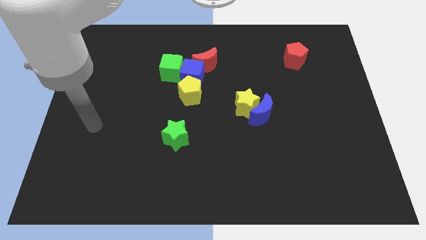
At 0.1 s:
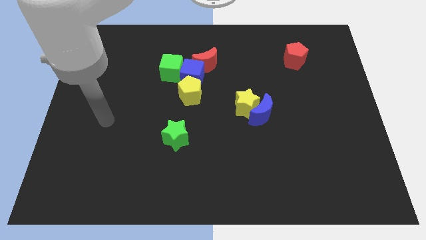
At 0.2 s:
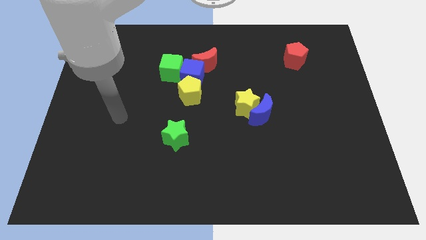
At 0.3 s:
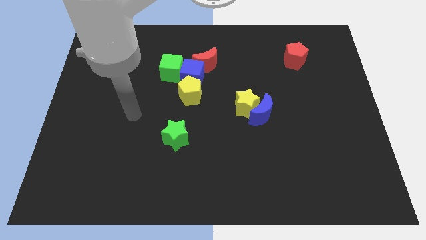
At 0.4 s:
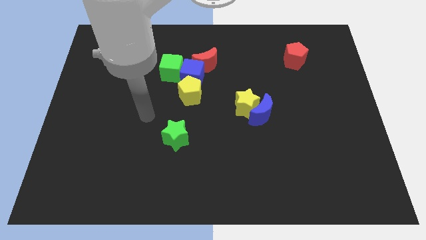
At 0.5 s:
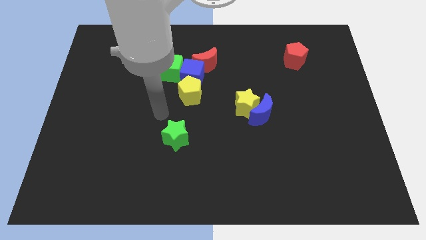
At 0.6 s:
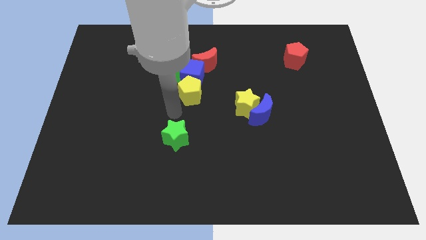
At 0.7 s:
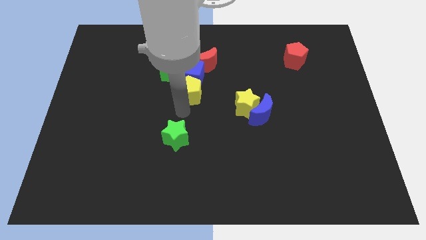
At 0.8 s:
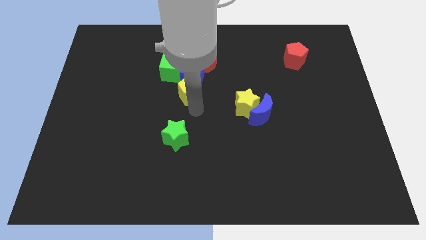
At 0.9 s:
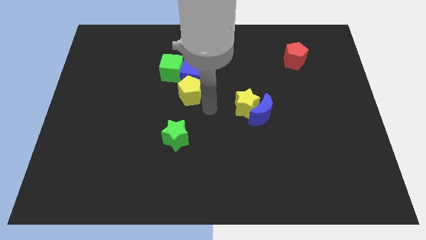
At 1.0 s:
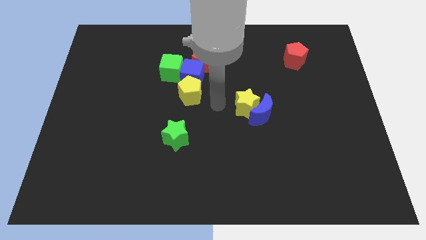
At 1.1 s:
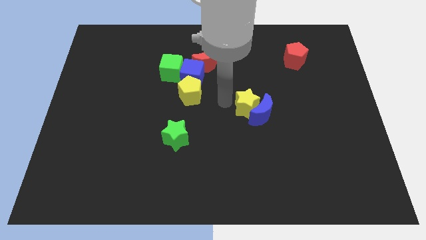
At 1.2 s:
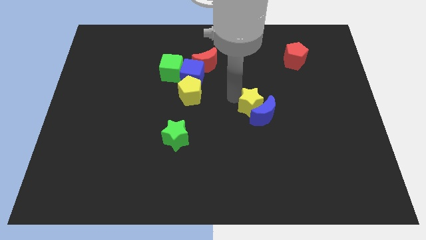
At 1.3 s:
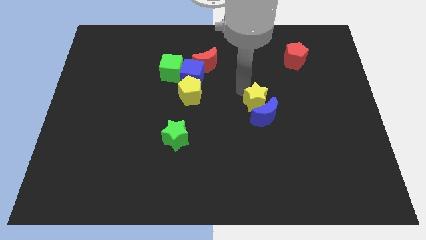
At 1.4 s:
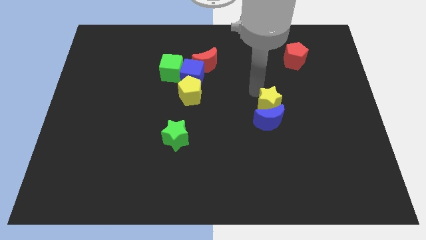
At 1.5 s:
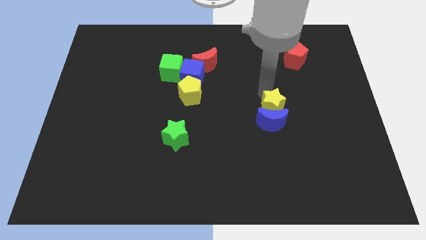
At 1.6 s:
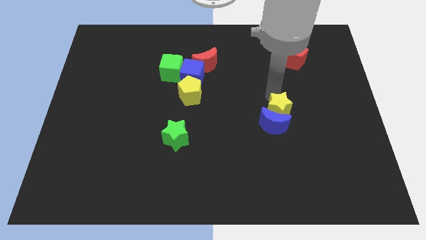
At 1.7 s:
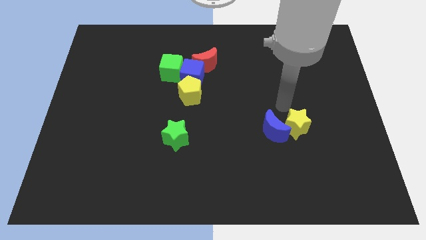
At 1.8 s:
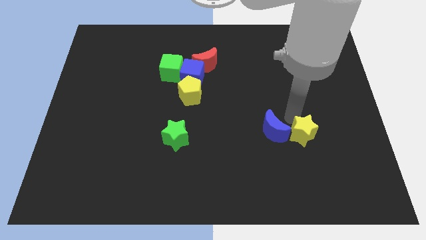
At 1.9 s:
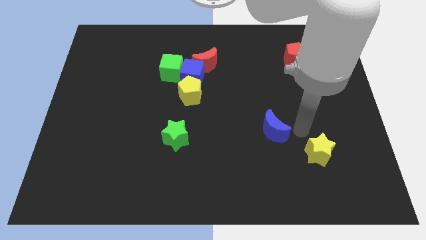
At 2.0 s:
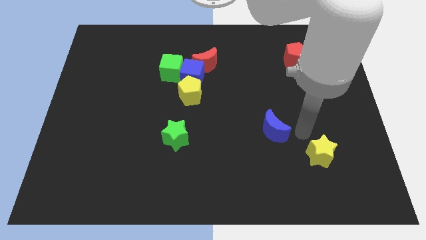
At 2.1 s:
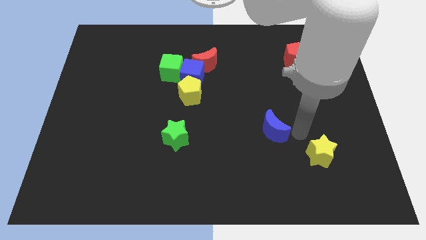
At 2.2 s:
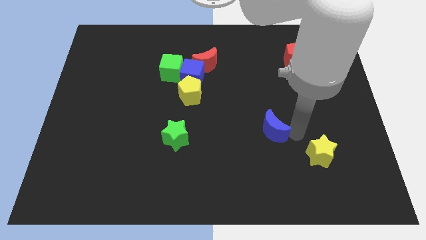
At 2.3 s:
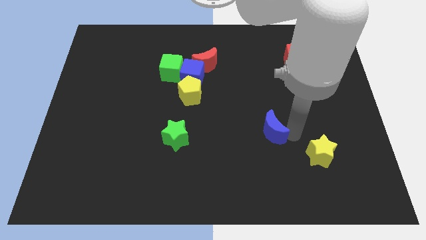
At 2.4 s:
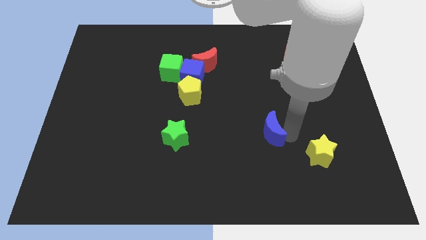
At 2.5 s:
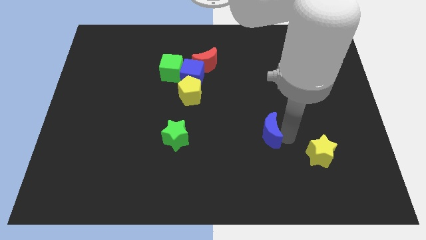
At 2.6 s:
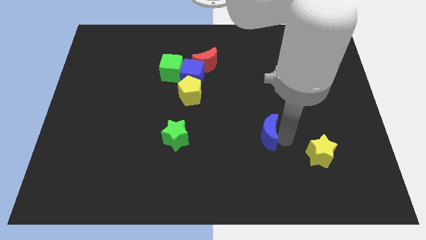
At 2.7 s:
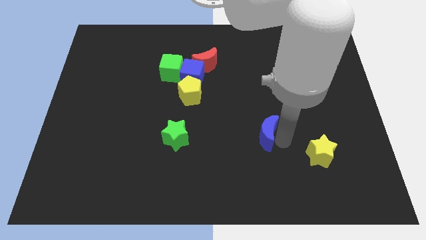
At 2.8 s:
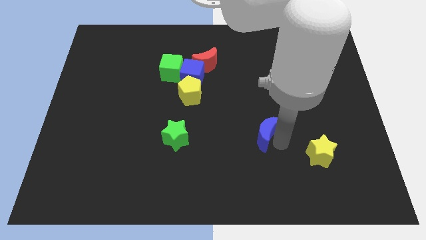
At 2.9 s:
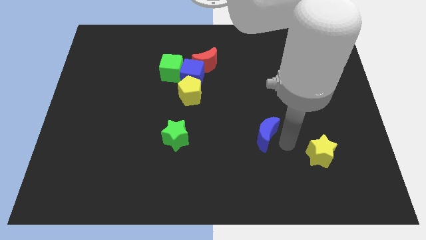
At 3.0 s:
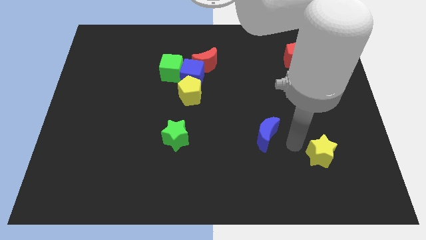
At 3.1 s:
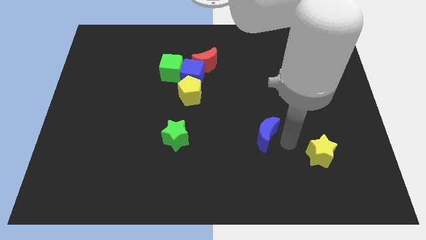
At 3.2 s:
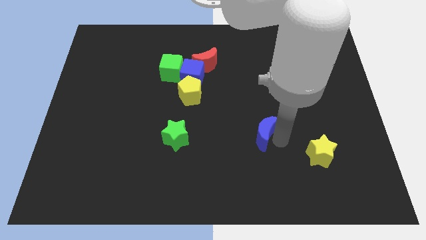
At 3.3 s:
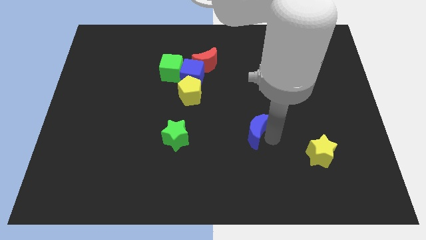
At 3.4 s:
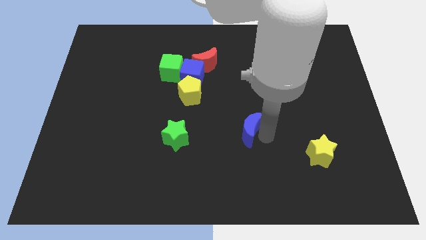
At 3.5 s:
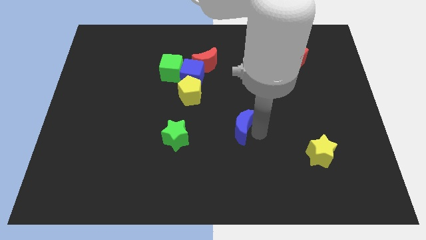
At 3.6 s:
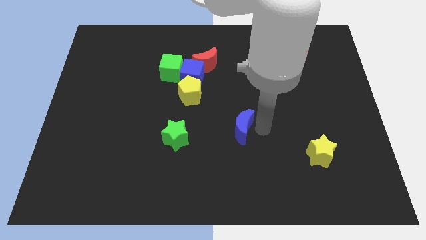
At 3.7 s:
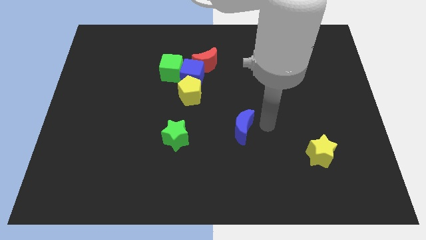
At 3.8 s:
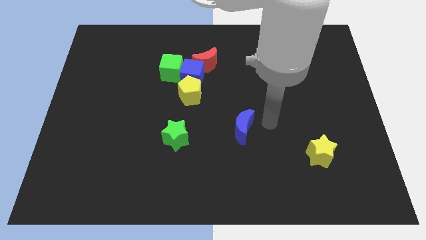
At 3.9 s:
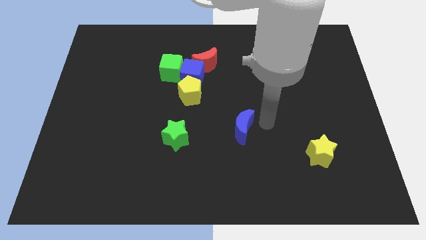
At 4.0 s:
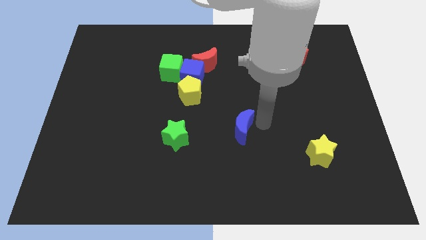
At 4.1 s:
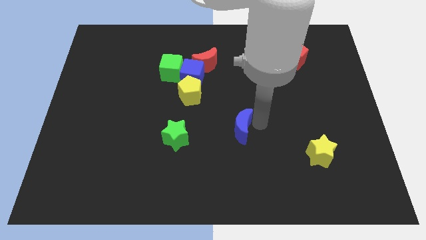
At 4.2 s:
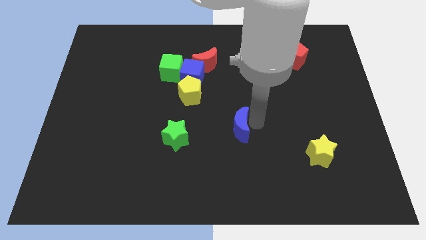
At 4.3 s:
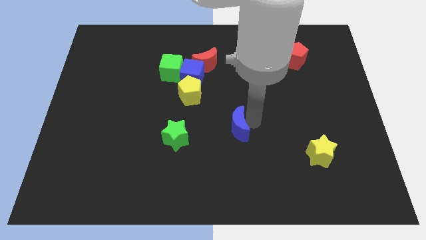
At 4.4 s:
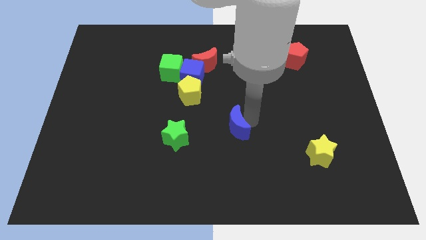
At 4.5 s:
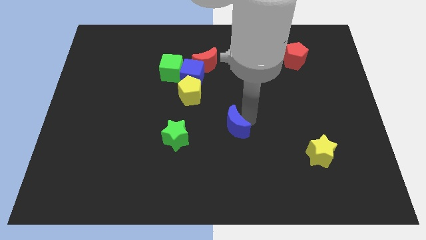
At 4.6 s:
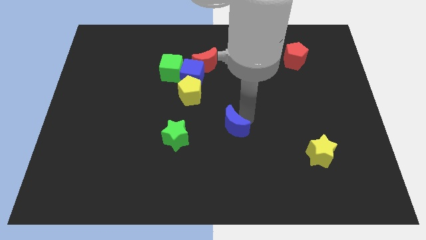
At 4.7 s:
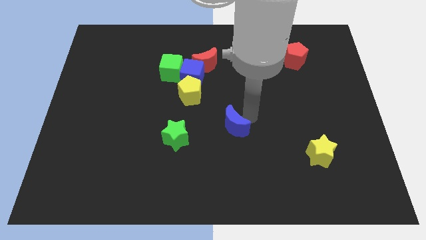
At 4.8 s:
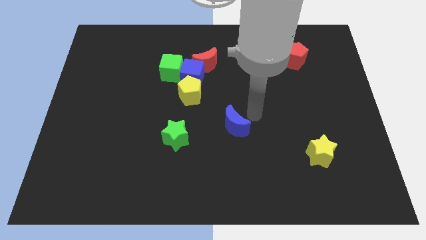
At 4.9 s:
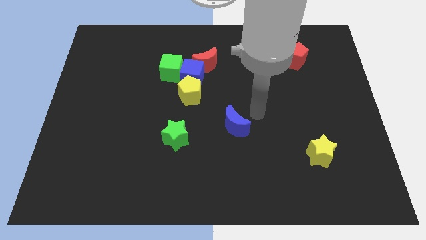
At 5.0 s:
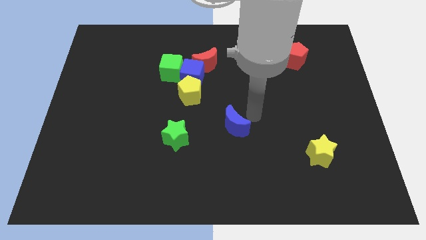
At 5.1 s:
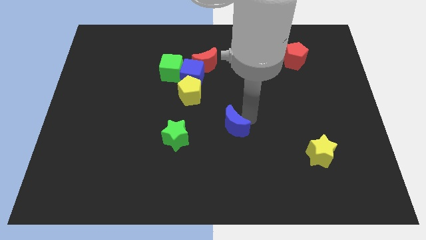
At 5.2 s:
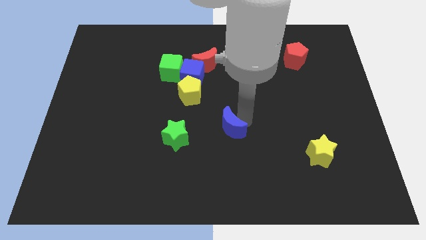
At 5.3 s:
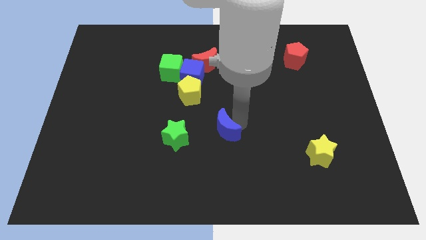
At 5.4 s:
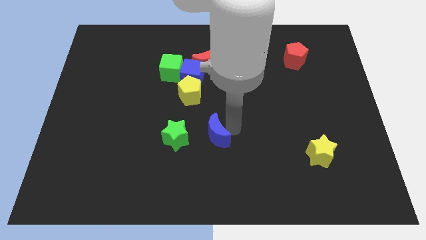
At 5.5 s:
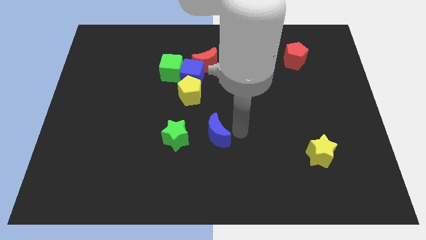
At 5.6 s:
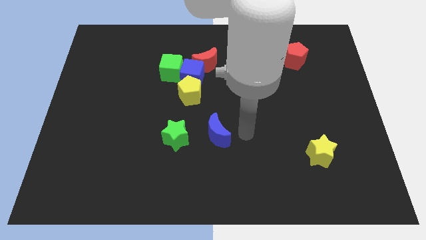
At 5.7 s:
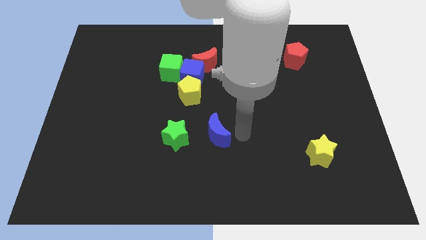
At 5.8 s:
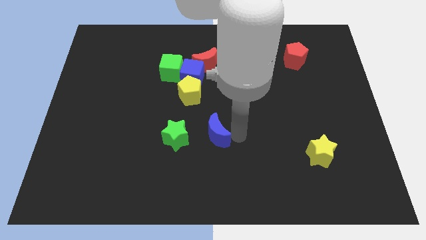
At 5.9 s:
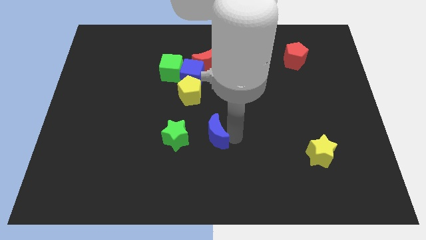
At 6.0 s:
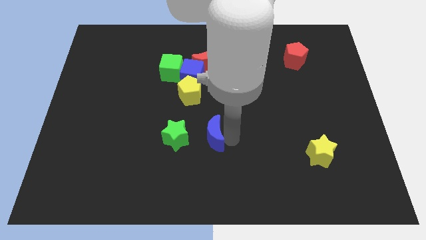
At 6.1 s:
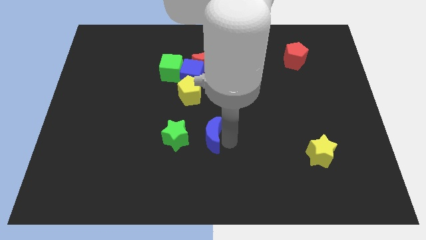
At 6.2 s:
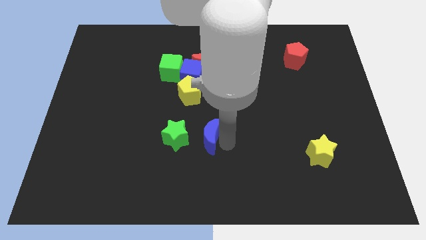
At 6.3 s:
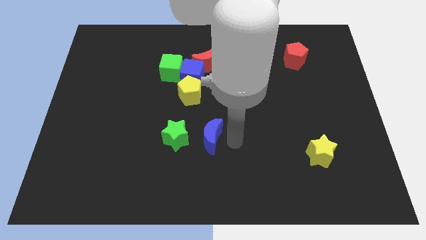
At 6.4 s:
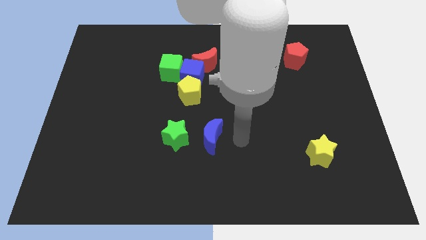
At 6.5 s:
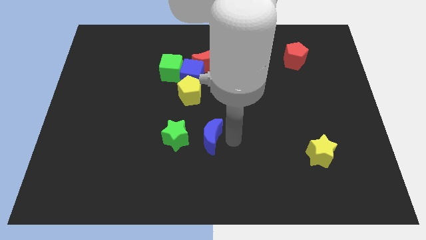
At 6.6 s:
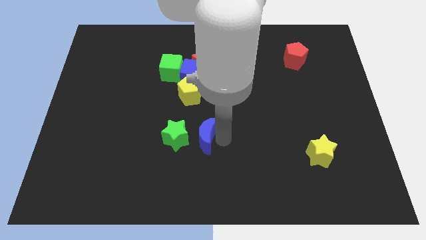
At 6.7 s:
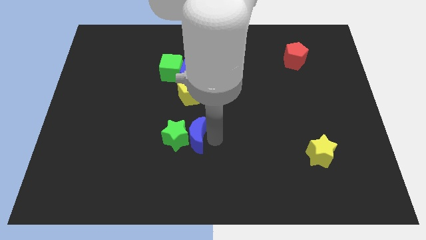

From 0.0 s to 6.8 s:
put the blue moon towards the green star

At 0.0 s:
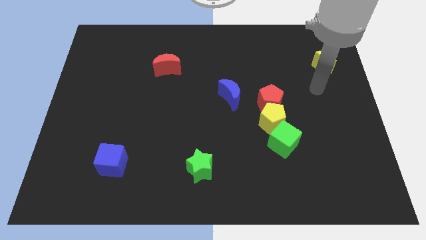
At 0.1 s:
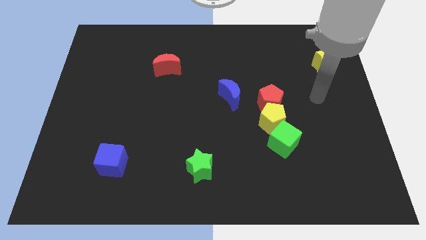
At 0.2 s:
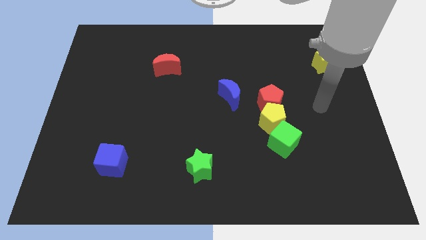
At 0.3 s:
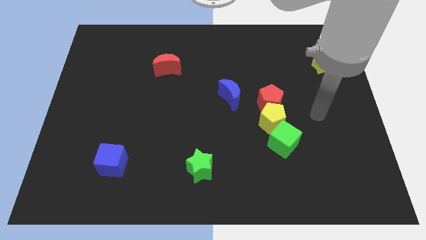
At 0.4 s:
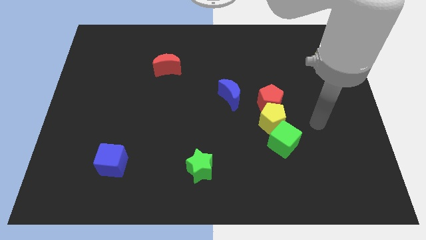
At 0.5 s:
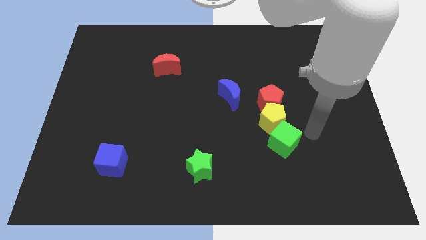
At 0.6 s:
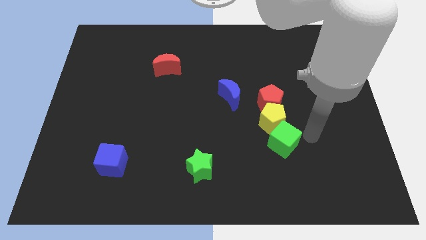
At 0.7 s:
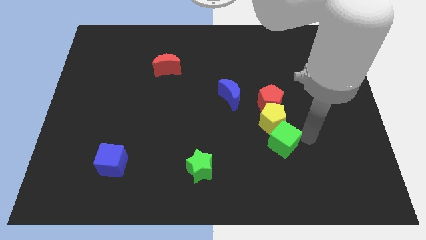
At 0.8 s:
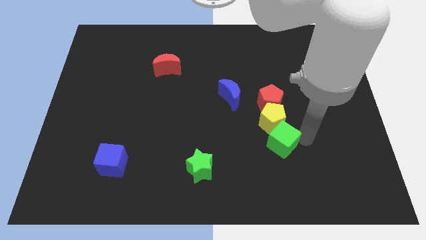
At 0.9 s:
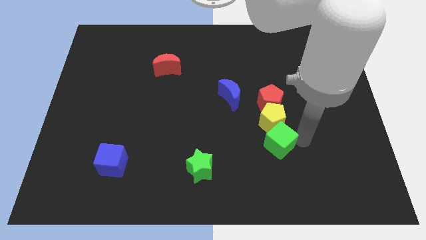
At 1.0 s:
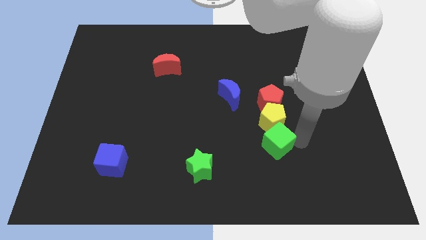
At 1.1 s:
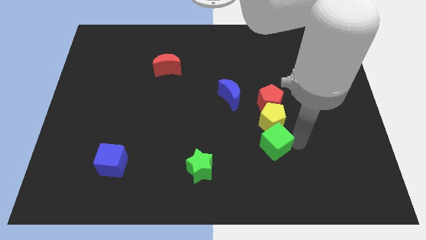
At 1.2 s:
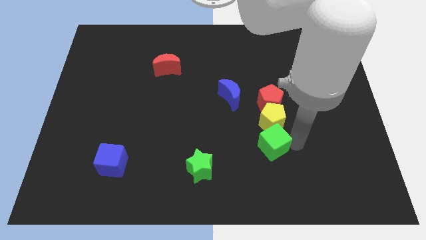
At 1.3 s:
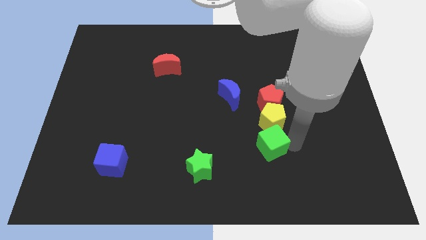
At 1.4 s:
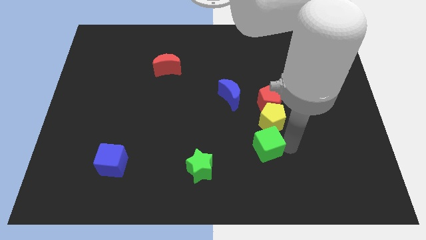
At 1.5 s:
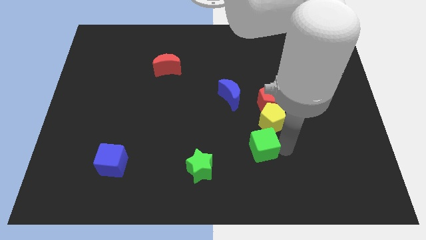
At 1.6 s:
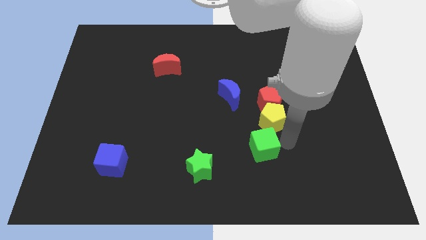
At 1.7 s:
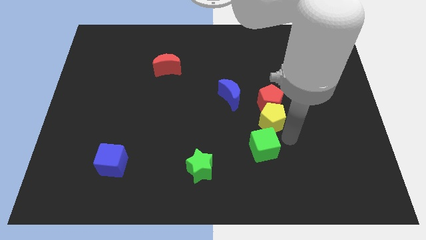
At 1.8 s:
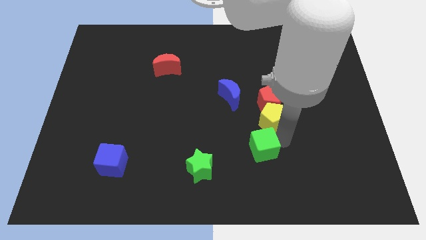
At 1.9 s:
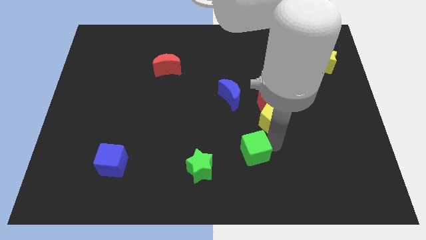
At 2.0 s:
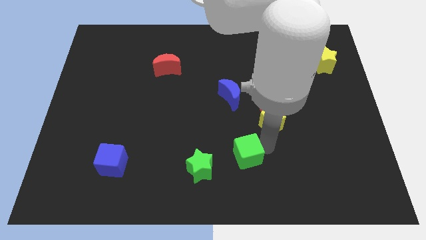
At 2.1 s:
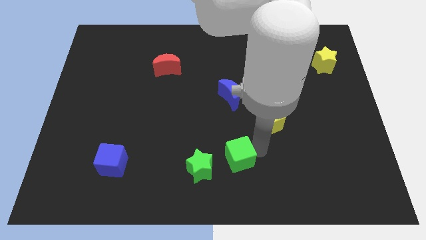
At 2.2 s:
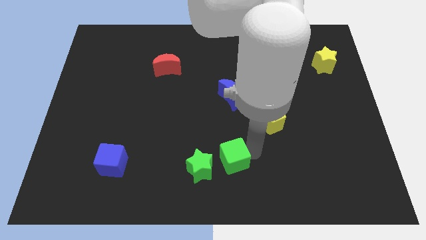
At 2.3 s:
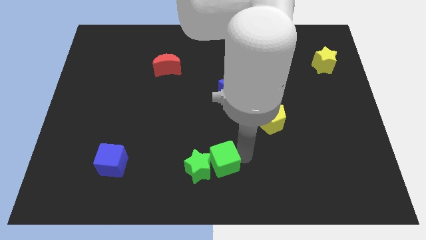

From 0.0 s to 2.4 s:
slide the green cube next to the green star
